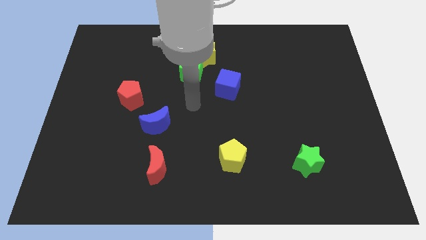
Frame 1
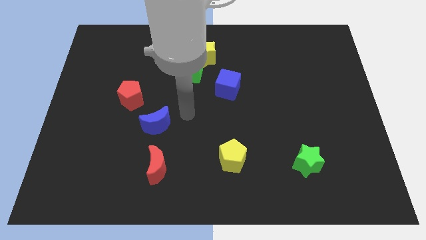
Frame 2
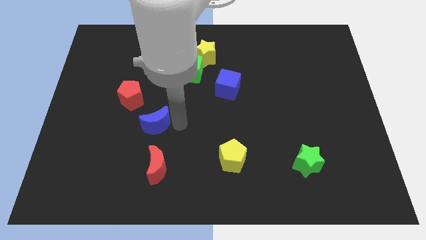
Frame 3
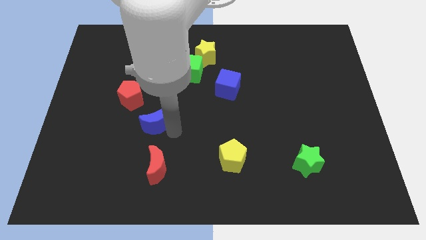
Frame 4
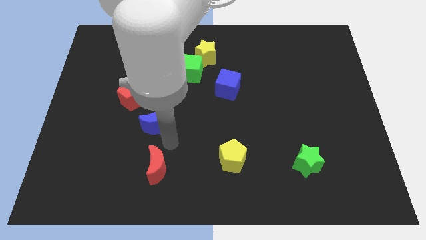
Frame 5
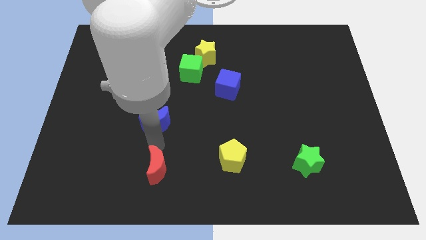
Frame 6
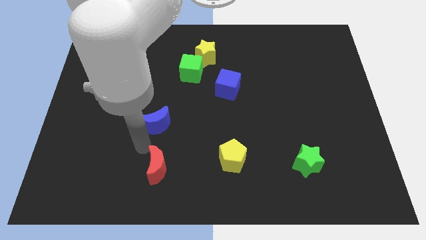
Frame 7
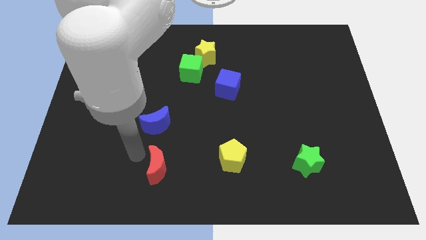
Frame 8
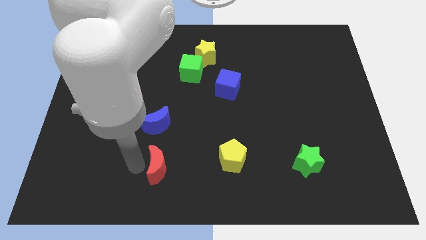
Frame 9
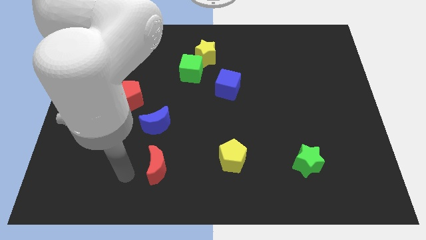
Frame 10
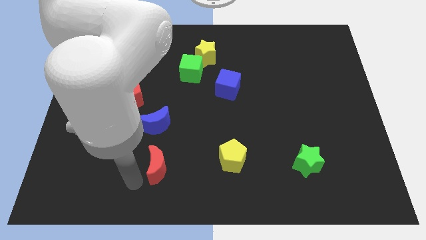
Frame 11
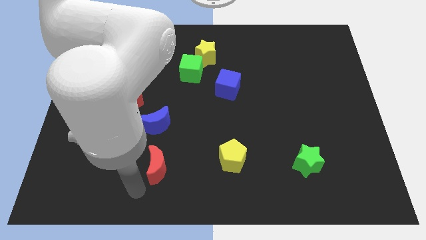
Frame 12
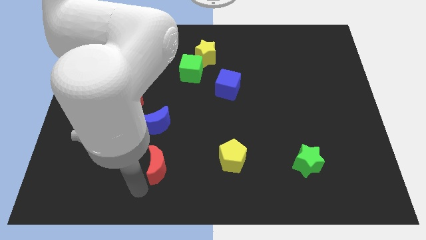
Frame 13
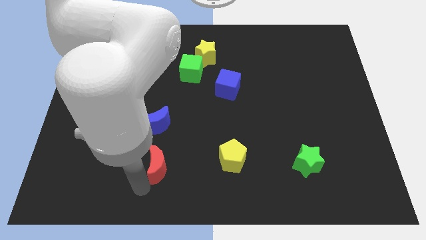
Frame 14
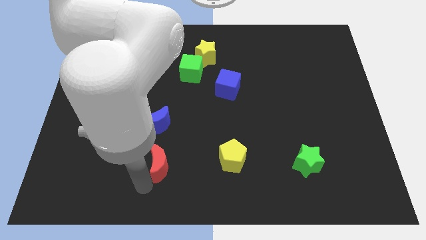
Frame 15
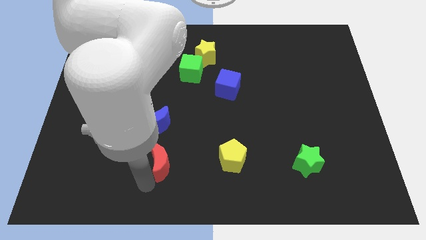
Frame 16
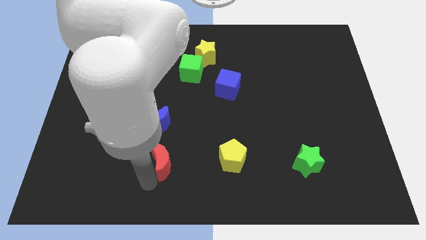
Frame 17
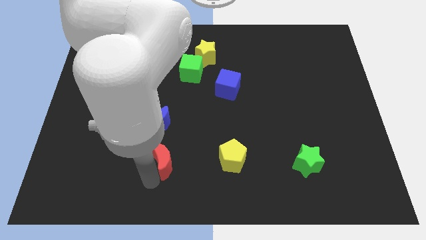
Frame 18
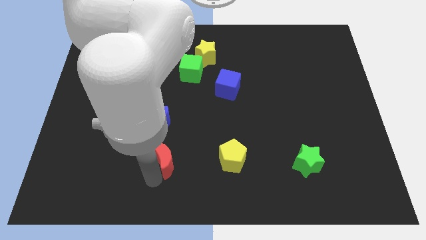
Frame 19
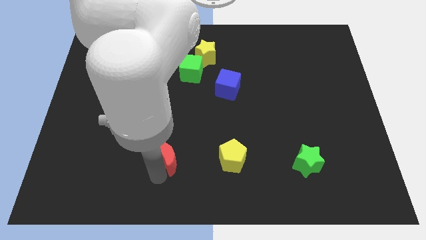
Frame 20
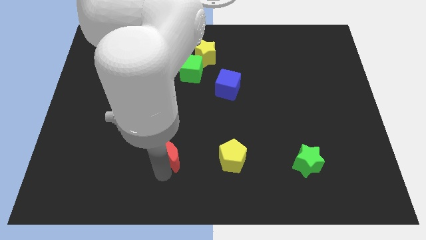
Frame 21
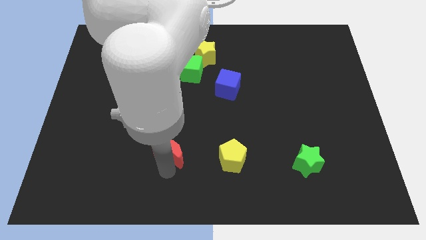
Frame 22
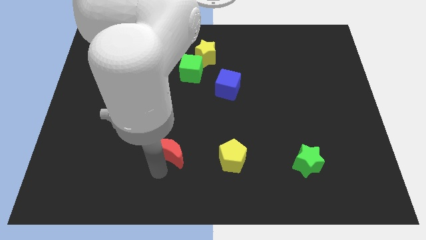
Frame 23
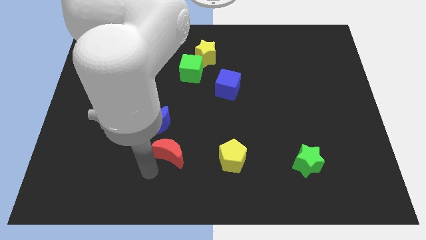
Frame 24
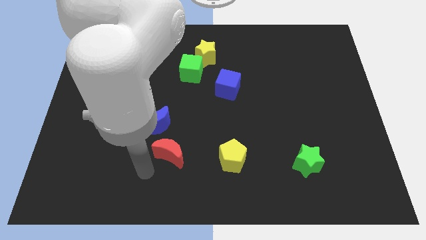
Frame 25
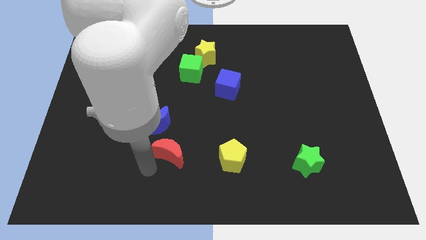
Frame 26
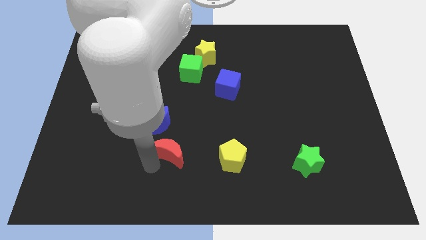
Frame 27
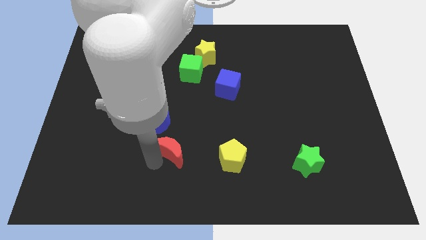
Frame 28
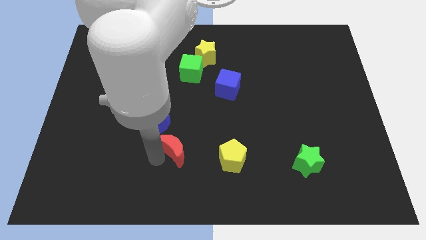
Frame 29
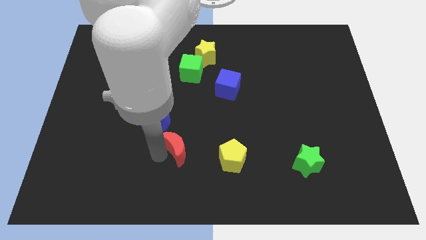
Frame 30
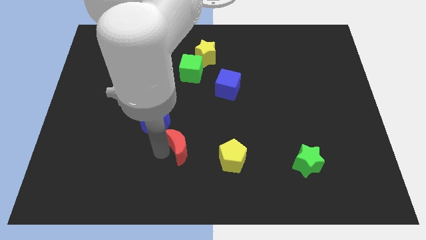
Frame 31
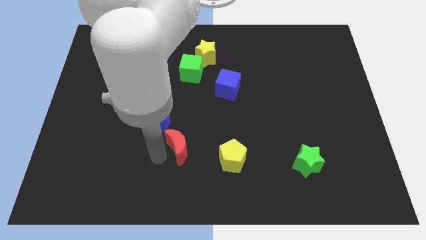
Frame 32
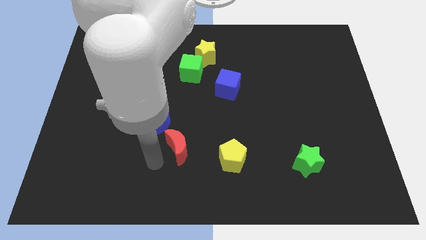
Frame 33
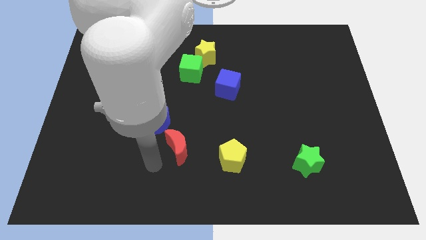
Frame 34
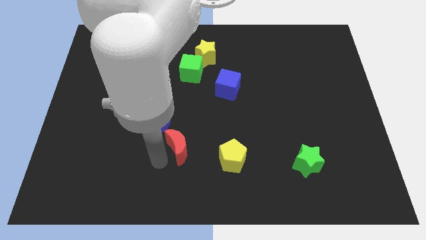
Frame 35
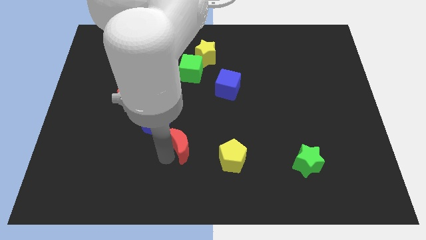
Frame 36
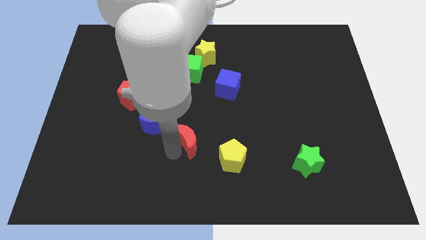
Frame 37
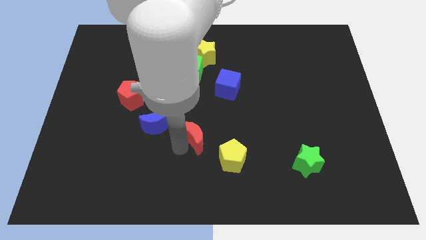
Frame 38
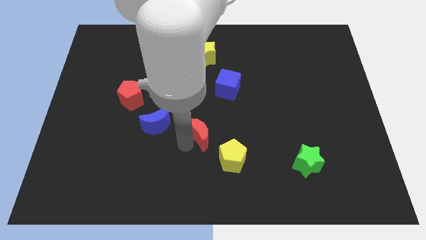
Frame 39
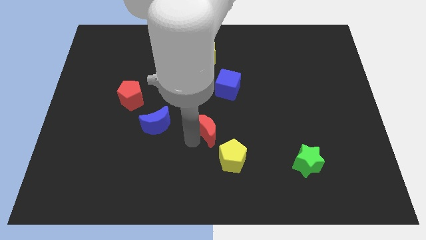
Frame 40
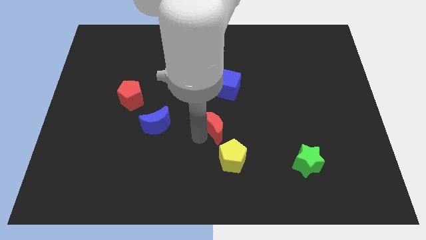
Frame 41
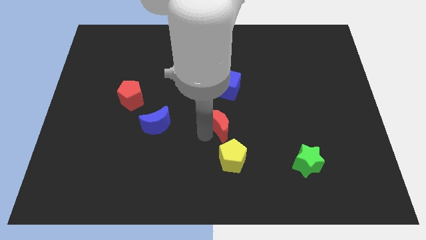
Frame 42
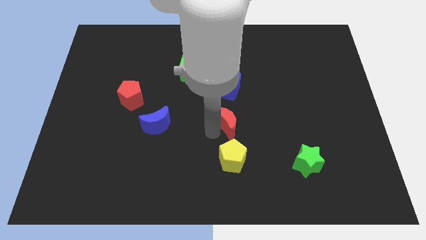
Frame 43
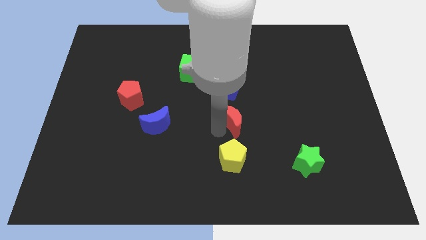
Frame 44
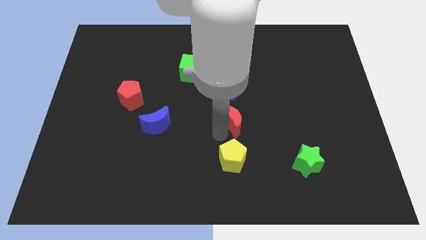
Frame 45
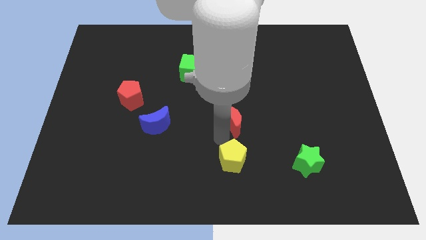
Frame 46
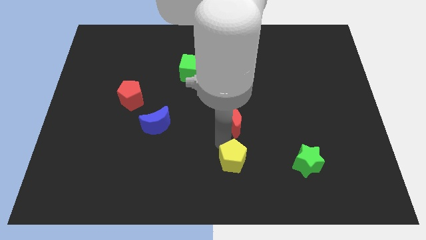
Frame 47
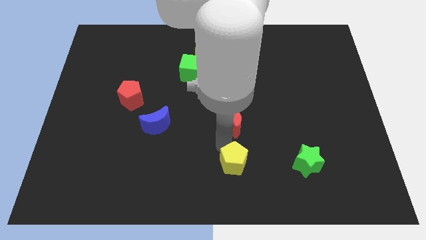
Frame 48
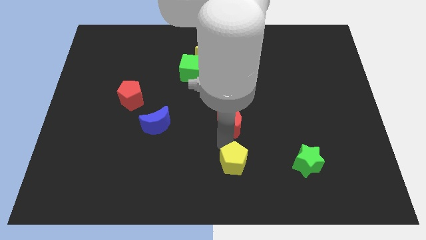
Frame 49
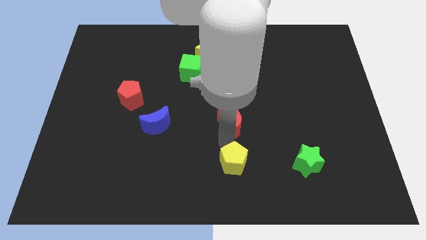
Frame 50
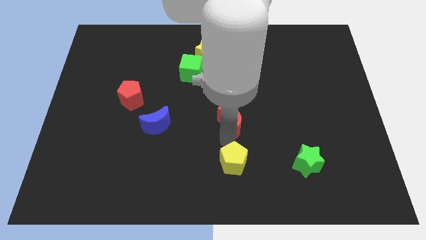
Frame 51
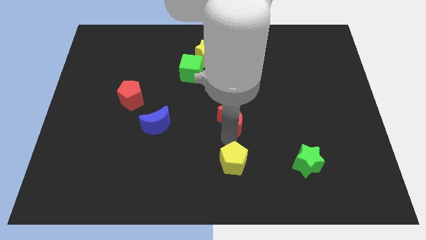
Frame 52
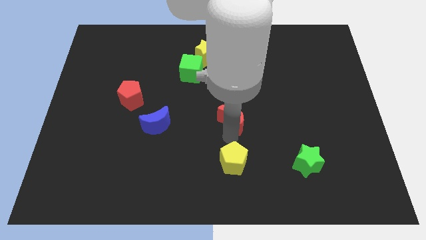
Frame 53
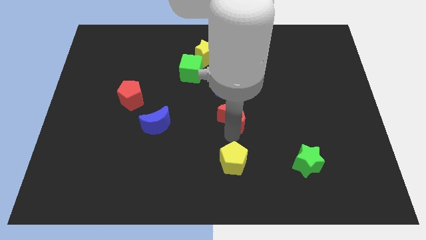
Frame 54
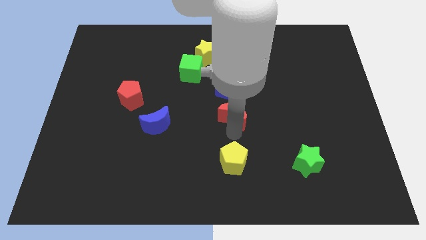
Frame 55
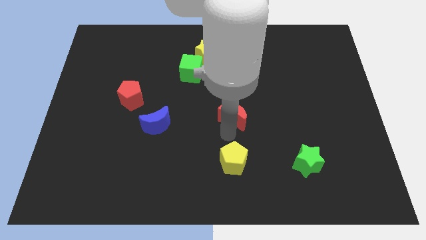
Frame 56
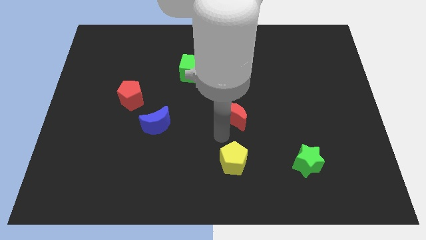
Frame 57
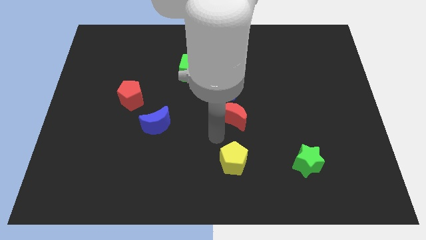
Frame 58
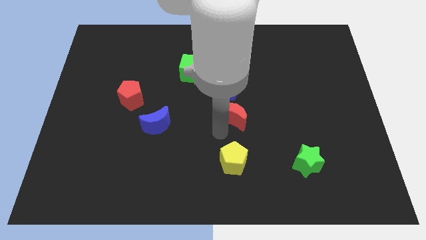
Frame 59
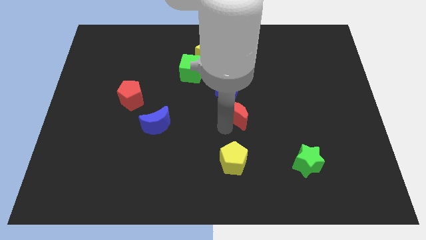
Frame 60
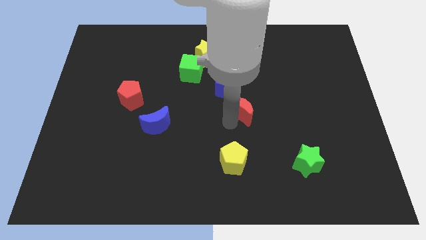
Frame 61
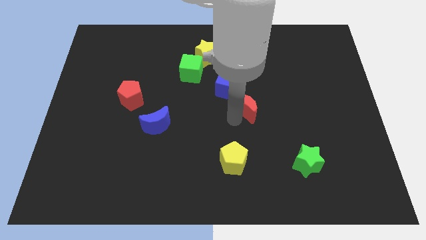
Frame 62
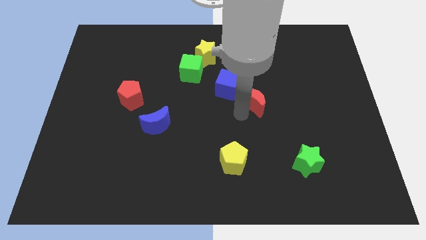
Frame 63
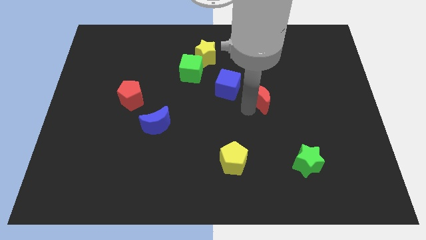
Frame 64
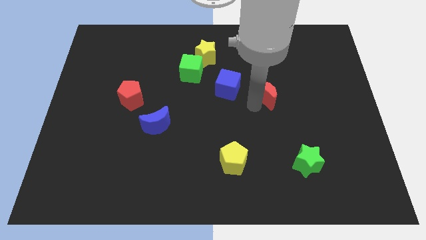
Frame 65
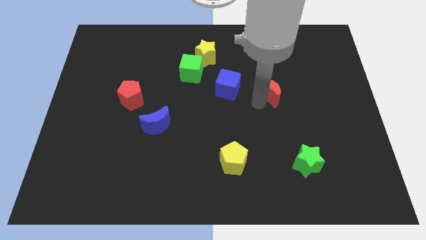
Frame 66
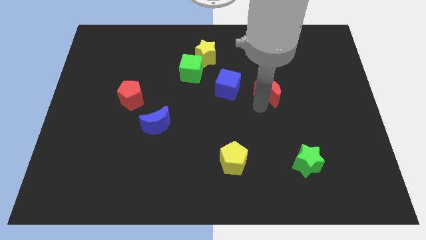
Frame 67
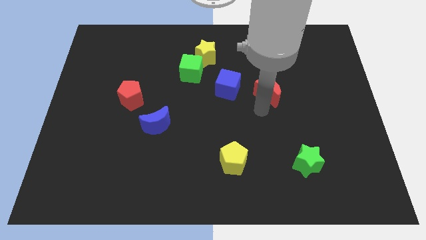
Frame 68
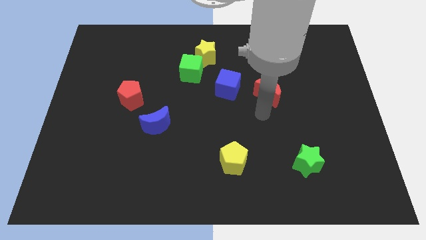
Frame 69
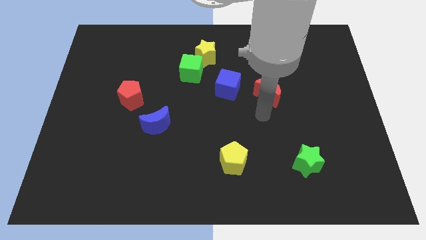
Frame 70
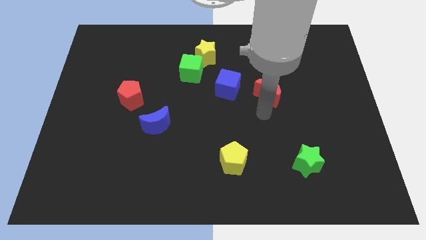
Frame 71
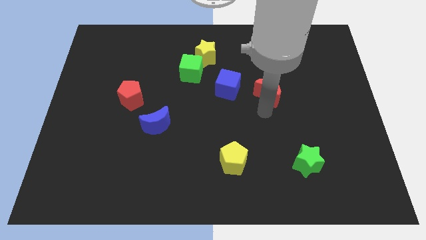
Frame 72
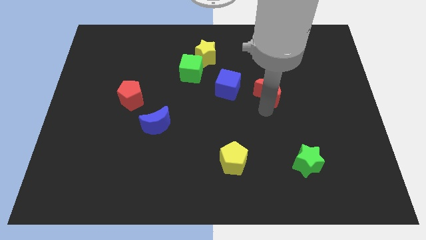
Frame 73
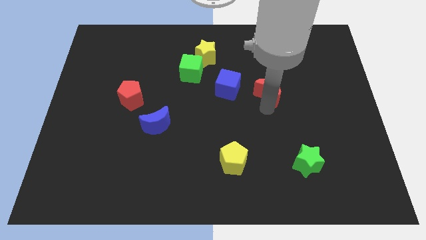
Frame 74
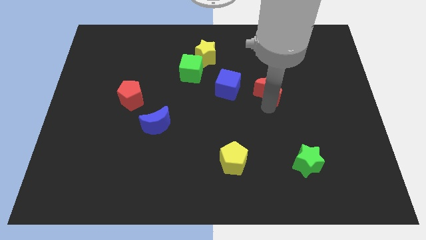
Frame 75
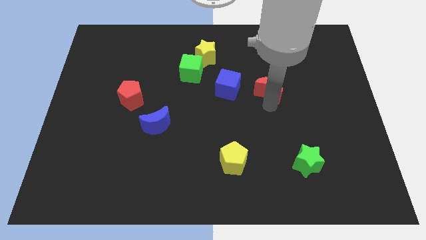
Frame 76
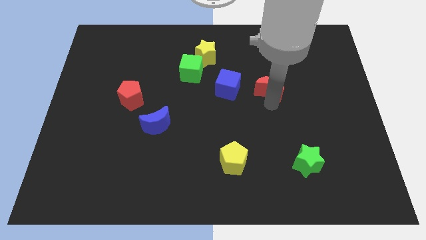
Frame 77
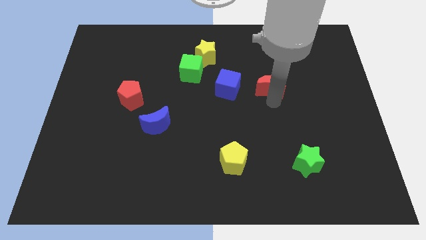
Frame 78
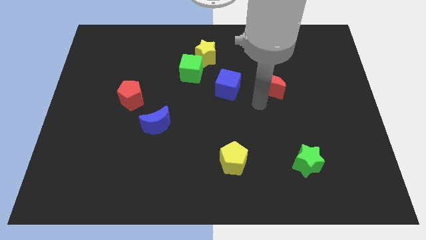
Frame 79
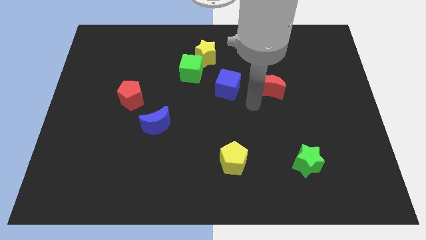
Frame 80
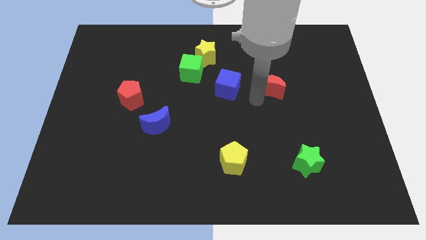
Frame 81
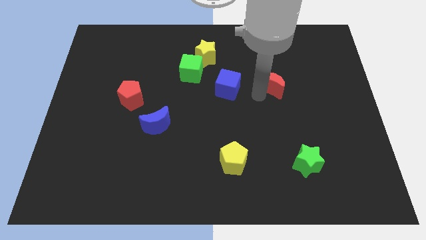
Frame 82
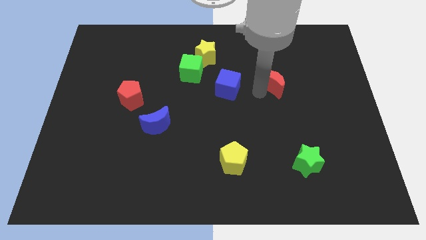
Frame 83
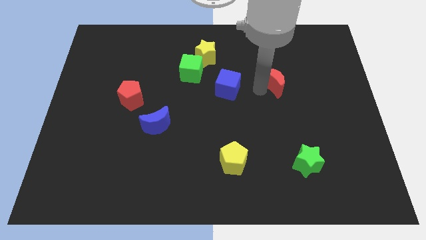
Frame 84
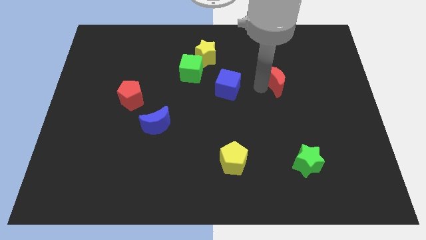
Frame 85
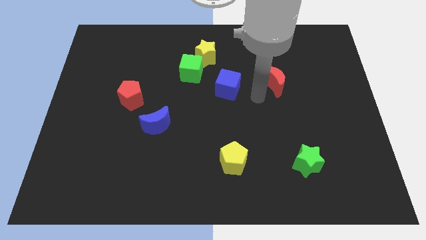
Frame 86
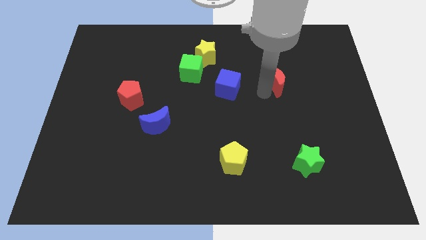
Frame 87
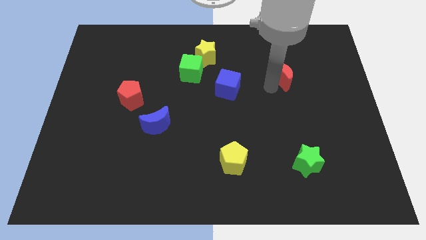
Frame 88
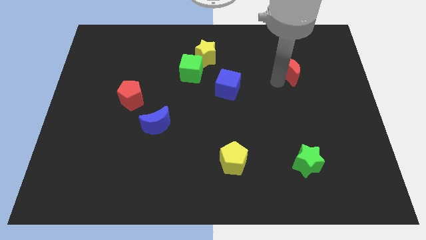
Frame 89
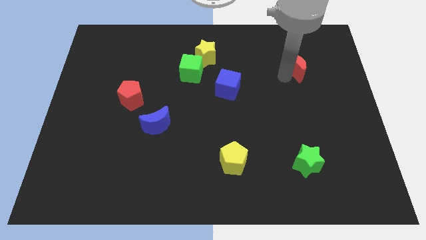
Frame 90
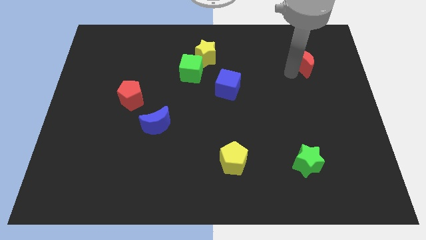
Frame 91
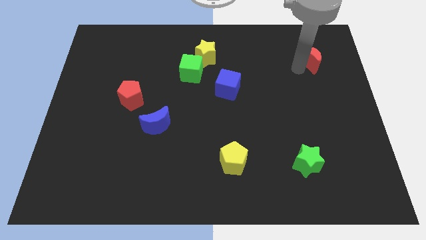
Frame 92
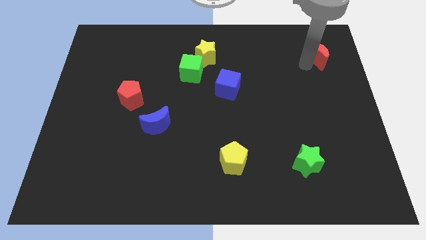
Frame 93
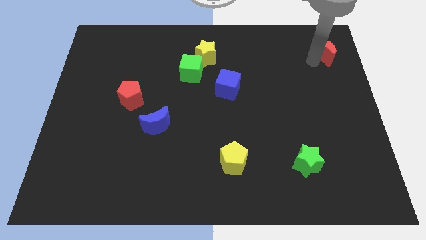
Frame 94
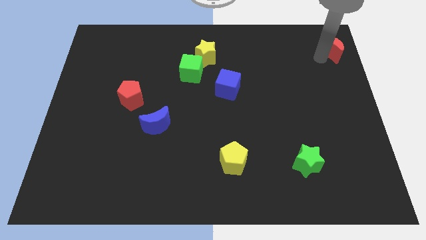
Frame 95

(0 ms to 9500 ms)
slide the red moon to the upper right corner
